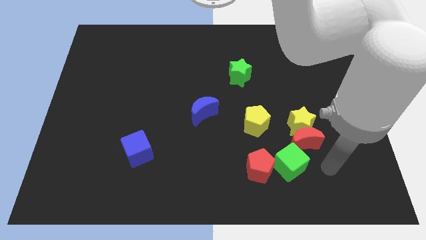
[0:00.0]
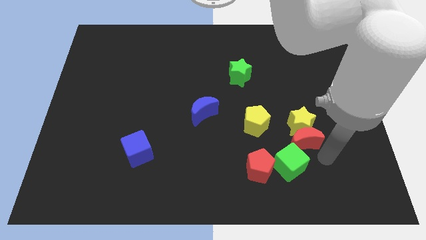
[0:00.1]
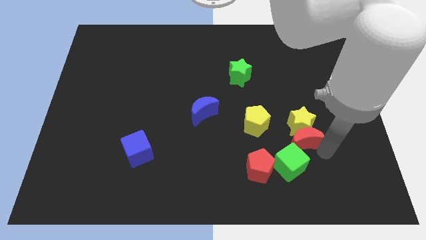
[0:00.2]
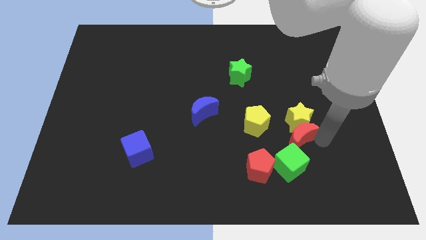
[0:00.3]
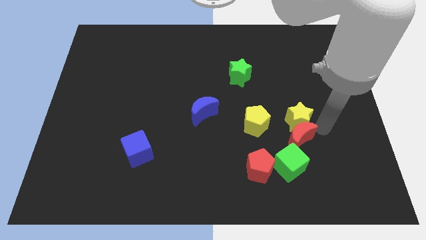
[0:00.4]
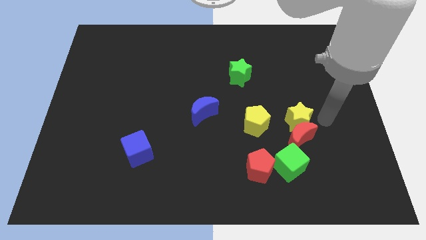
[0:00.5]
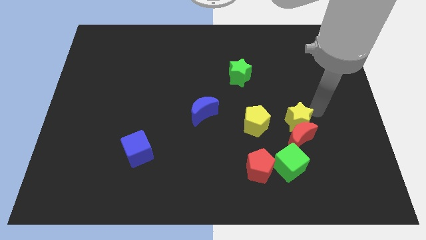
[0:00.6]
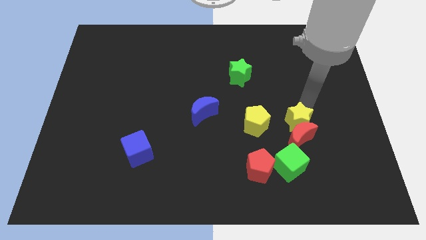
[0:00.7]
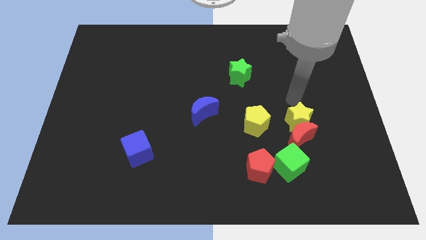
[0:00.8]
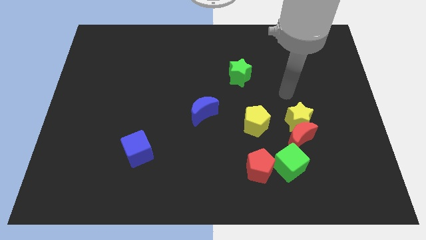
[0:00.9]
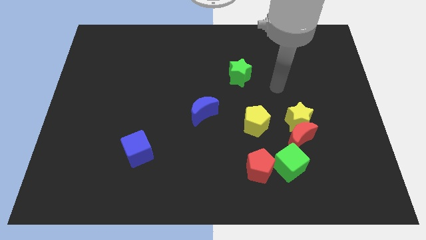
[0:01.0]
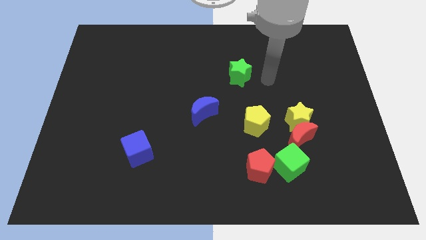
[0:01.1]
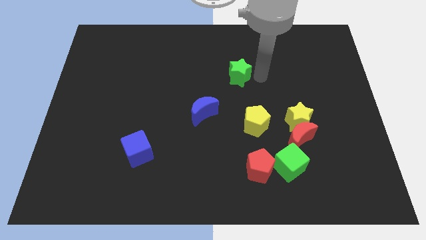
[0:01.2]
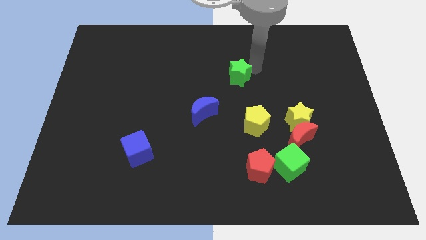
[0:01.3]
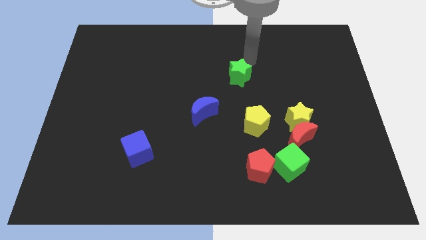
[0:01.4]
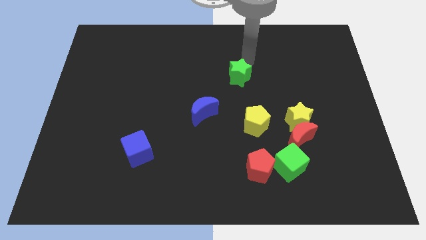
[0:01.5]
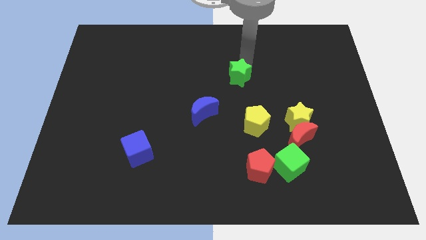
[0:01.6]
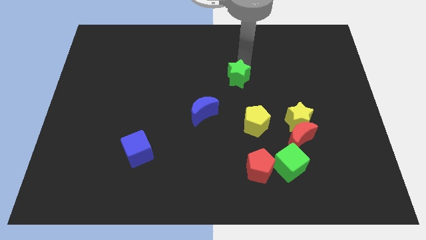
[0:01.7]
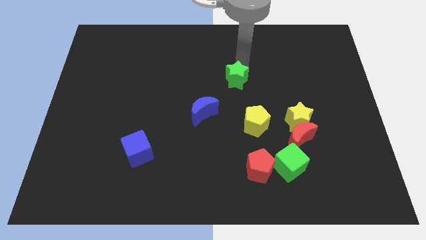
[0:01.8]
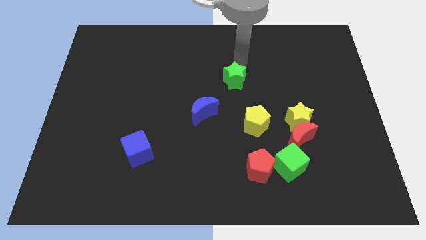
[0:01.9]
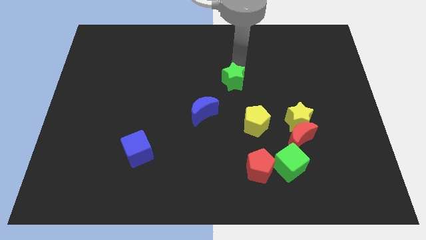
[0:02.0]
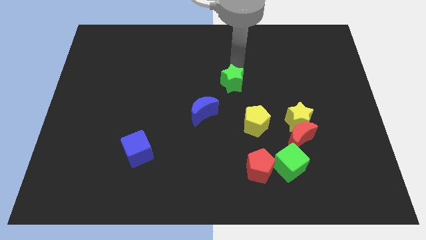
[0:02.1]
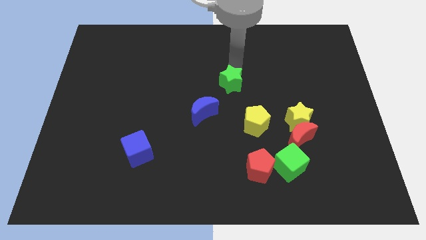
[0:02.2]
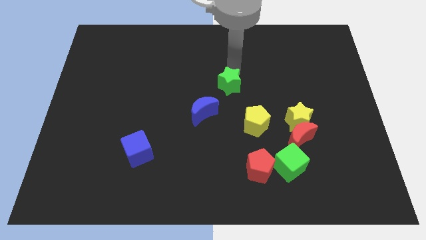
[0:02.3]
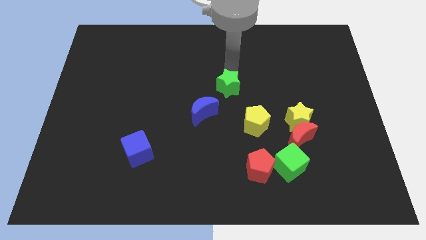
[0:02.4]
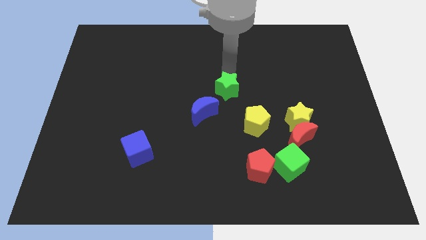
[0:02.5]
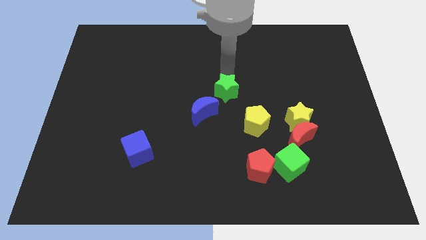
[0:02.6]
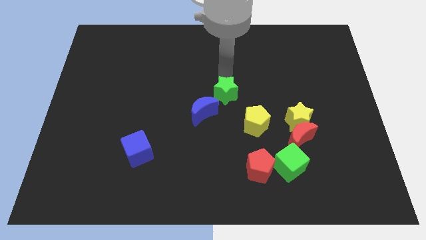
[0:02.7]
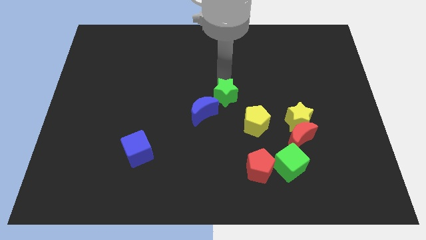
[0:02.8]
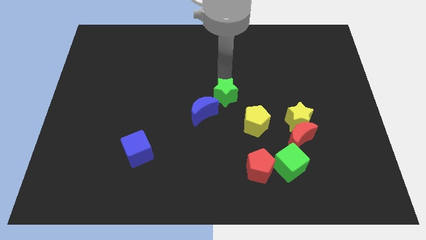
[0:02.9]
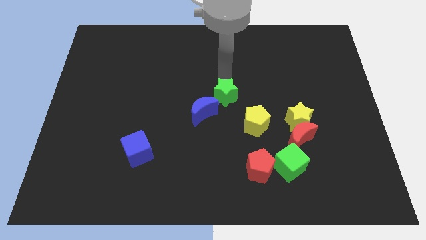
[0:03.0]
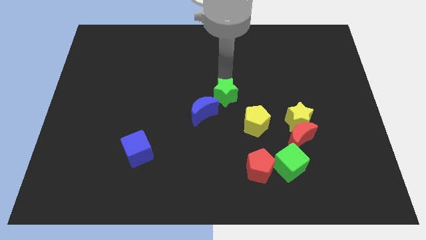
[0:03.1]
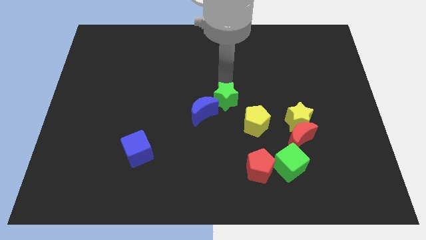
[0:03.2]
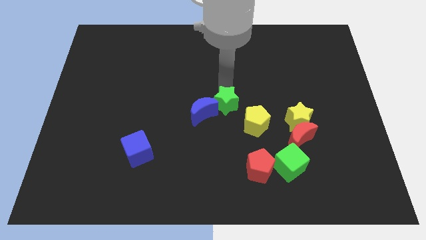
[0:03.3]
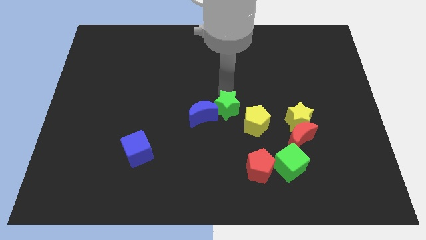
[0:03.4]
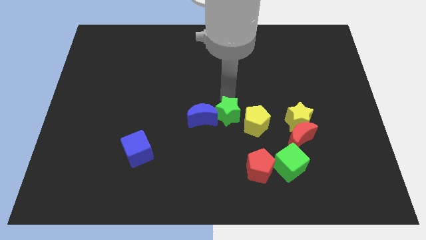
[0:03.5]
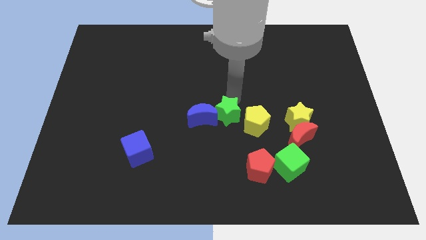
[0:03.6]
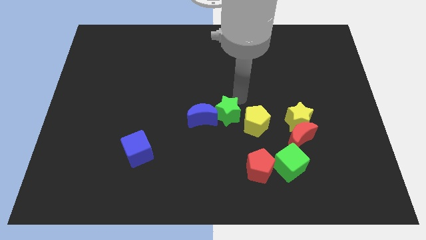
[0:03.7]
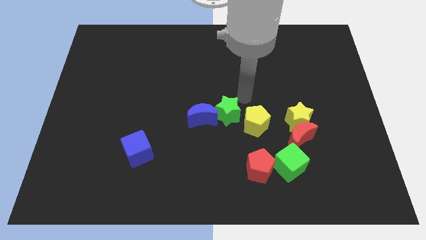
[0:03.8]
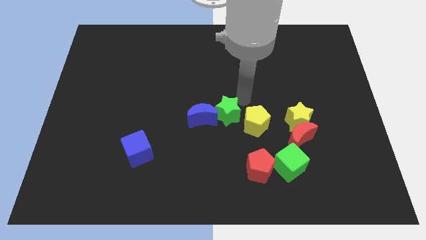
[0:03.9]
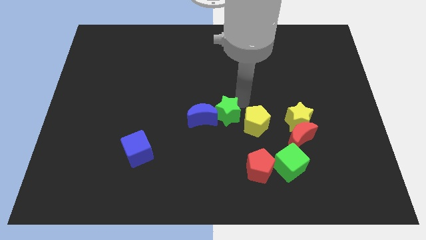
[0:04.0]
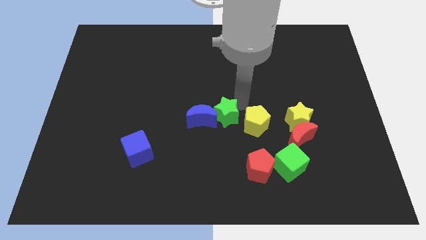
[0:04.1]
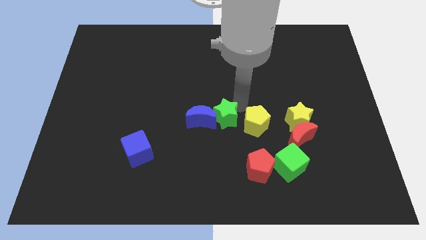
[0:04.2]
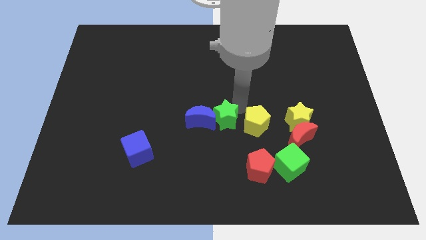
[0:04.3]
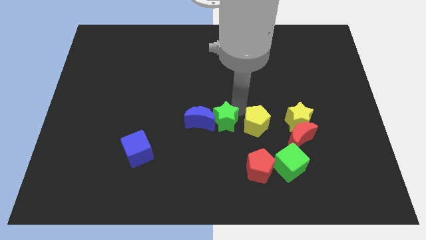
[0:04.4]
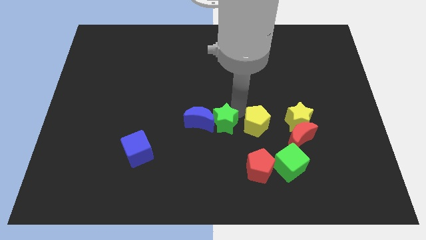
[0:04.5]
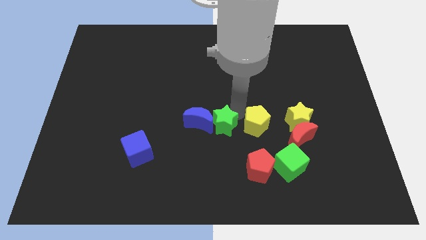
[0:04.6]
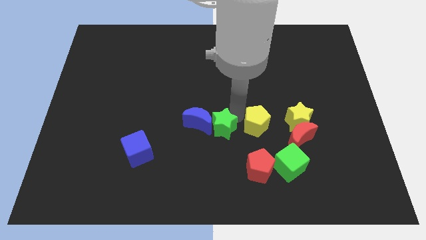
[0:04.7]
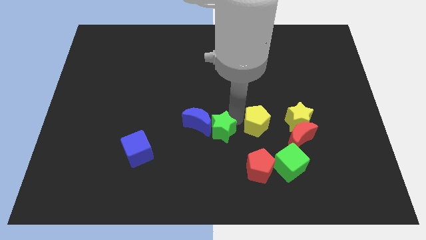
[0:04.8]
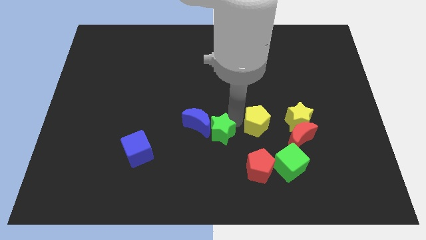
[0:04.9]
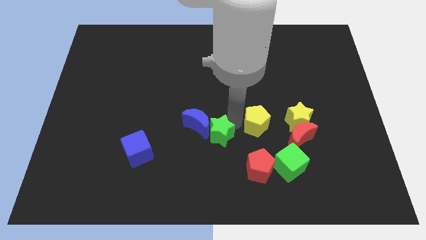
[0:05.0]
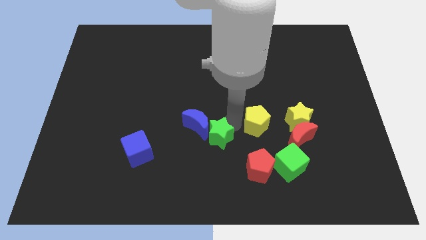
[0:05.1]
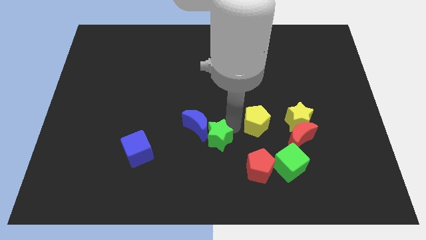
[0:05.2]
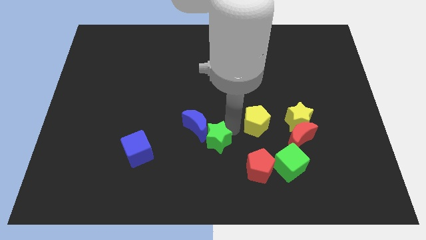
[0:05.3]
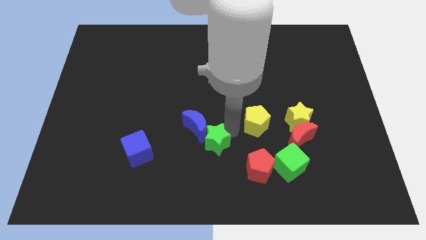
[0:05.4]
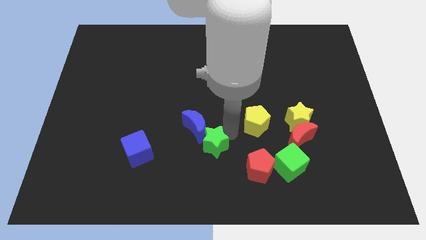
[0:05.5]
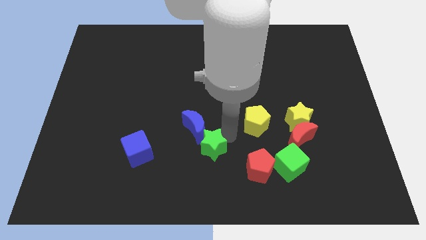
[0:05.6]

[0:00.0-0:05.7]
slide the green star to the right side of the blue cube
